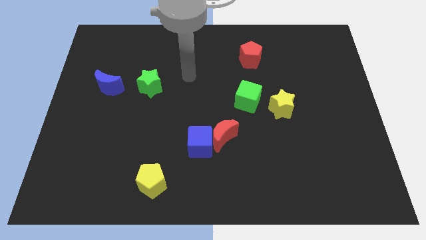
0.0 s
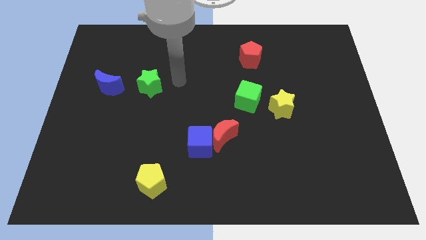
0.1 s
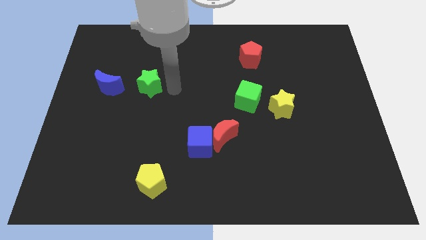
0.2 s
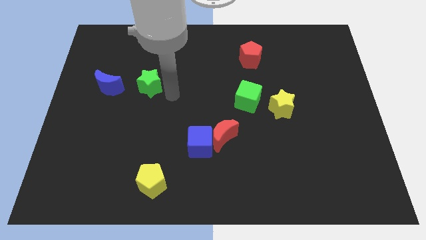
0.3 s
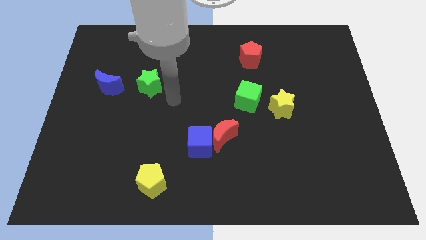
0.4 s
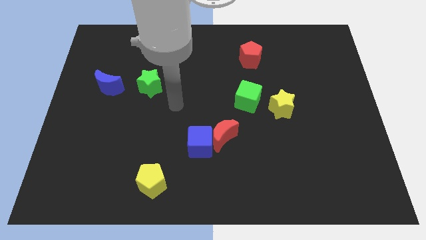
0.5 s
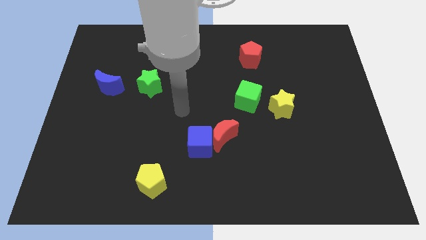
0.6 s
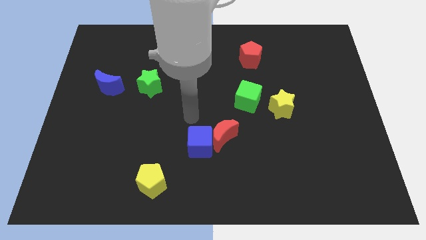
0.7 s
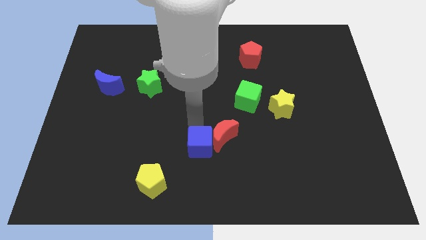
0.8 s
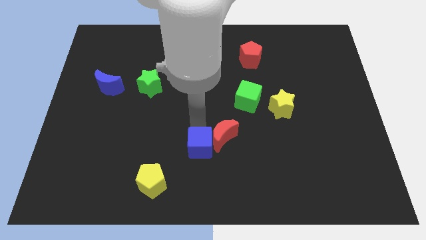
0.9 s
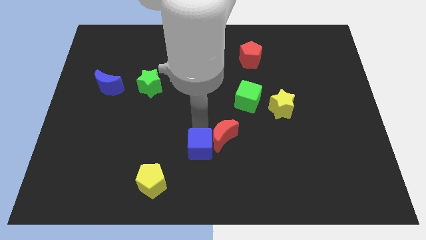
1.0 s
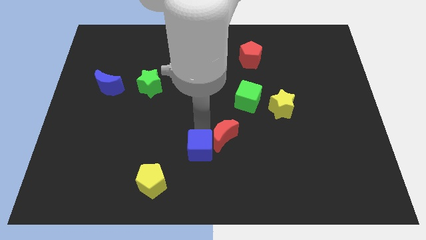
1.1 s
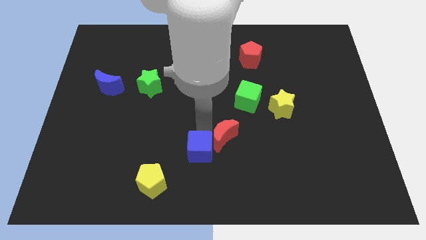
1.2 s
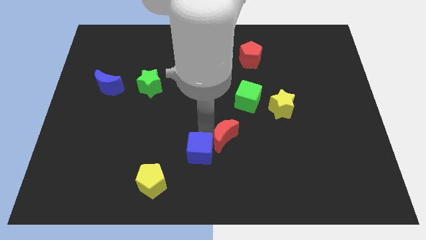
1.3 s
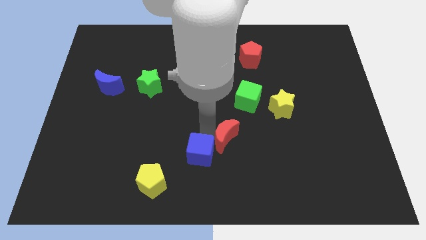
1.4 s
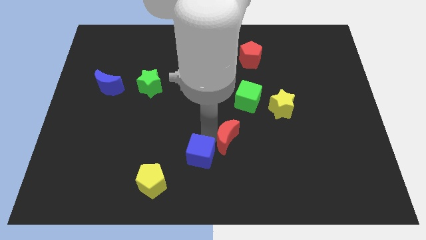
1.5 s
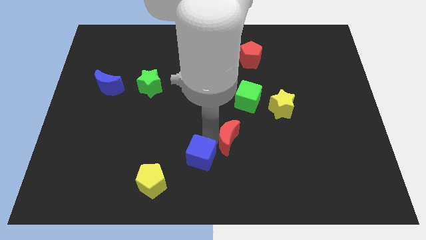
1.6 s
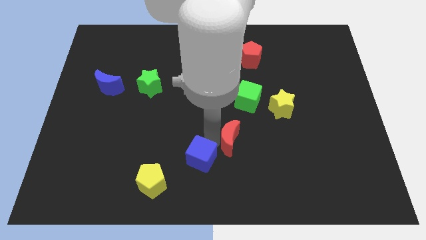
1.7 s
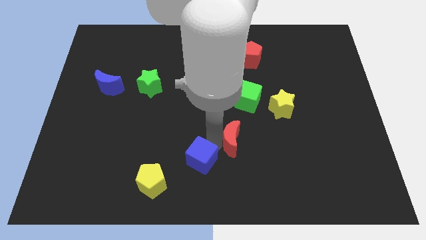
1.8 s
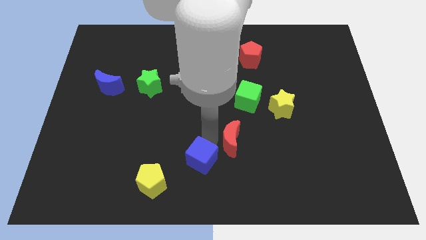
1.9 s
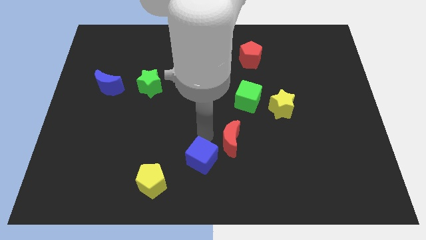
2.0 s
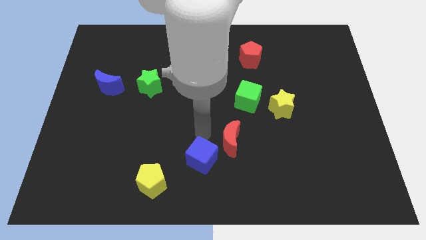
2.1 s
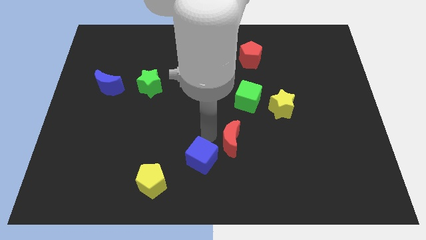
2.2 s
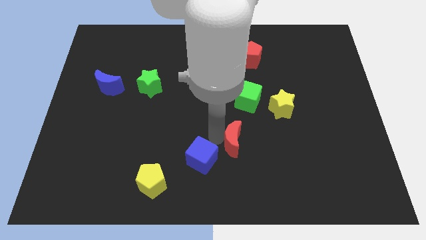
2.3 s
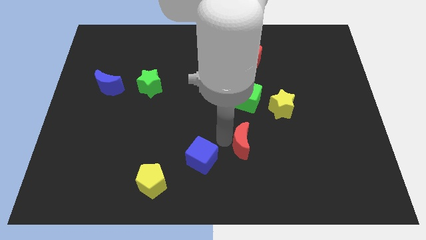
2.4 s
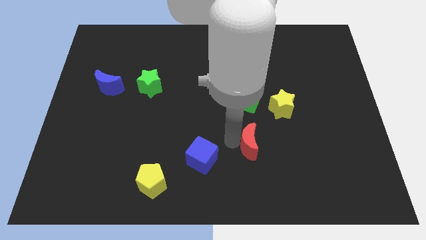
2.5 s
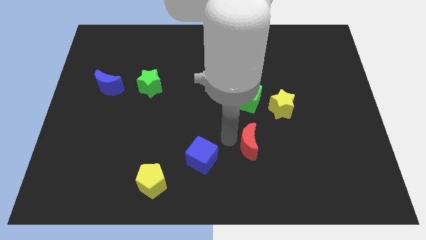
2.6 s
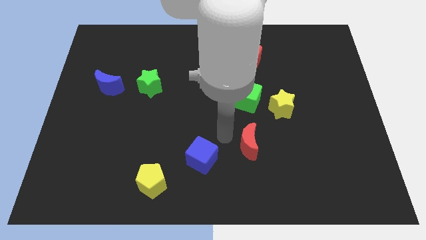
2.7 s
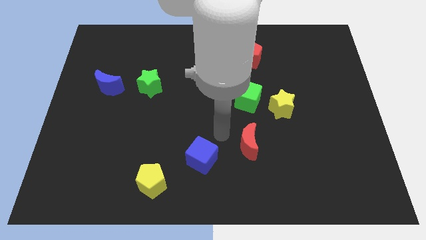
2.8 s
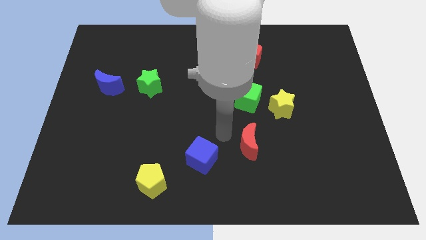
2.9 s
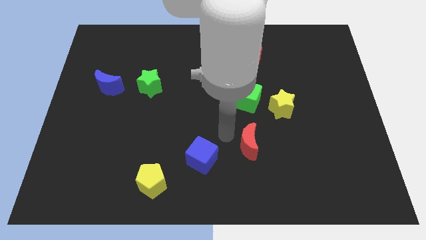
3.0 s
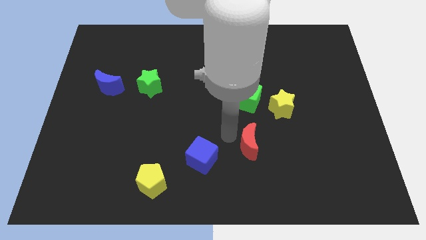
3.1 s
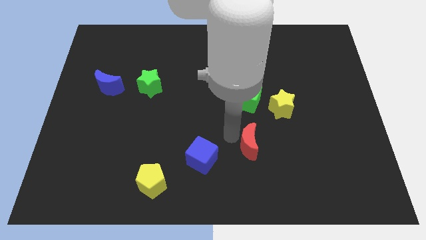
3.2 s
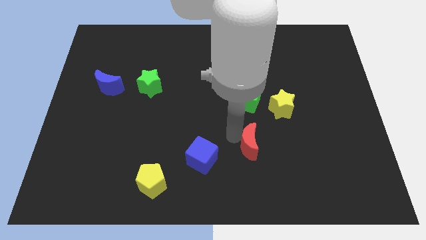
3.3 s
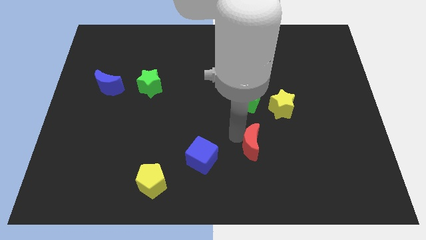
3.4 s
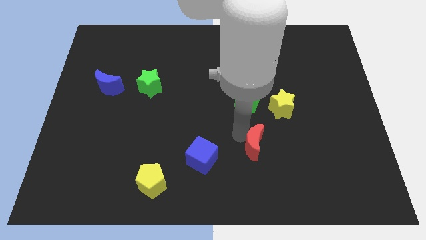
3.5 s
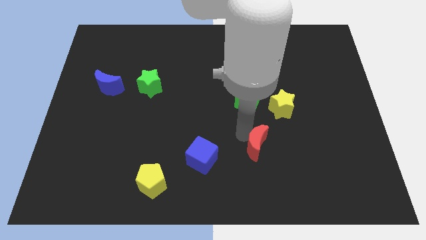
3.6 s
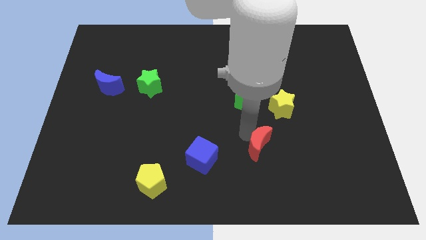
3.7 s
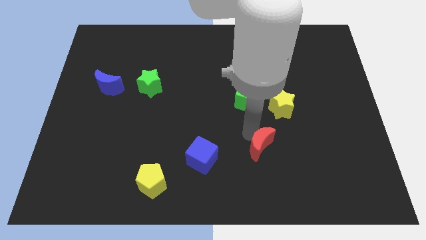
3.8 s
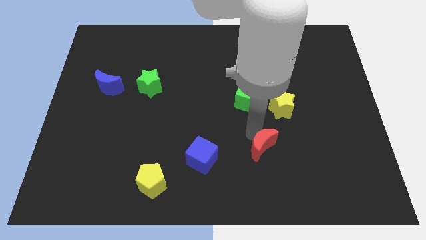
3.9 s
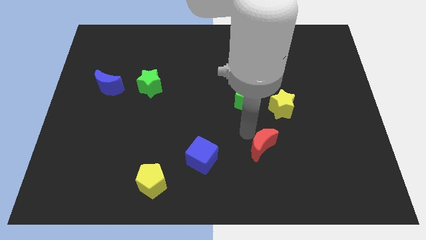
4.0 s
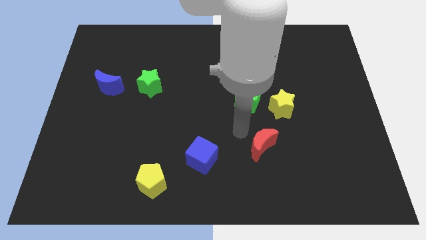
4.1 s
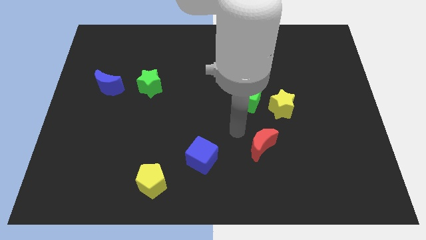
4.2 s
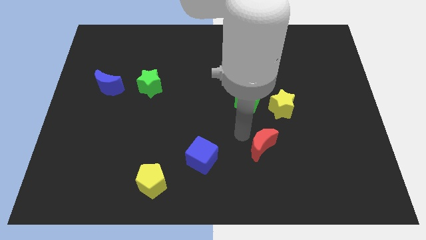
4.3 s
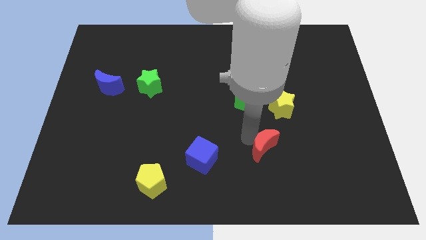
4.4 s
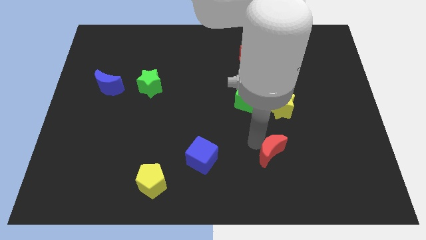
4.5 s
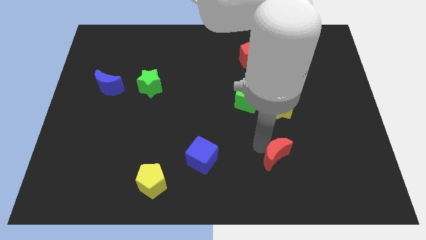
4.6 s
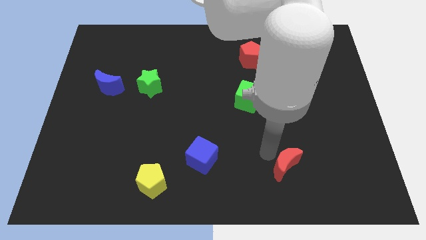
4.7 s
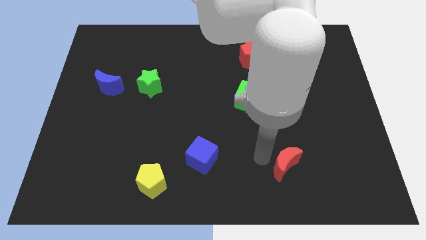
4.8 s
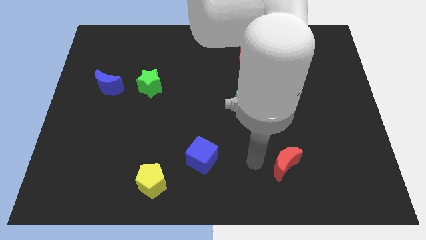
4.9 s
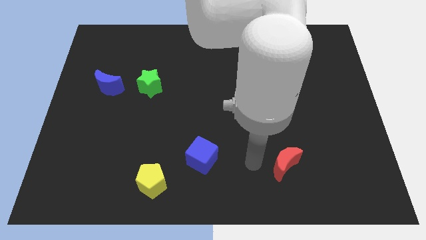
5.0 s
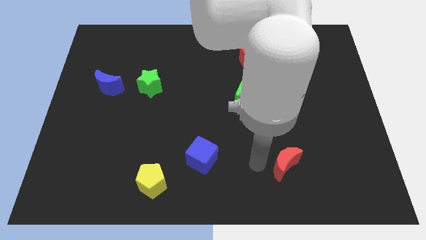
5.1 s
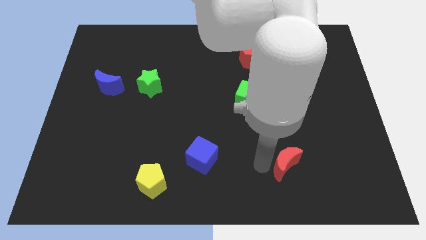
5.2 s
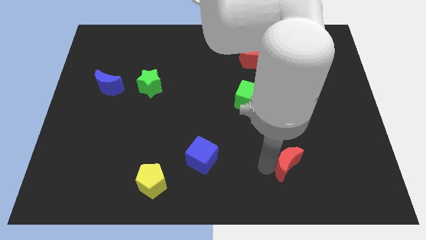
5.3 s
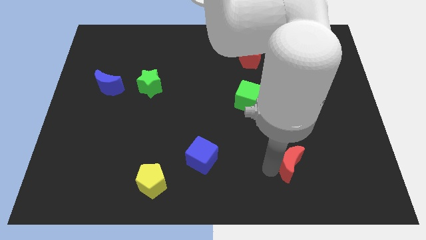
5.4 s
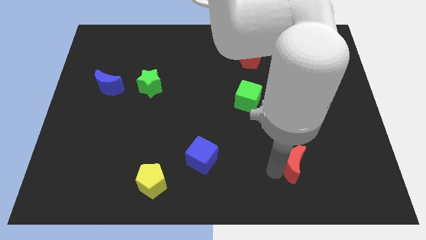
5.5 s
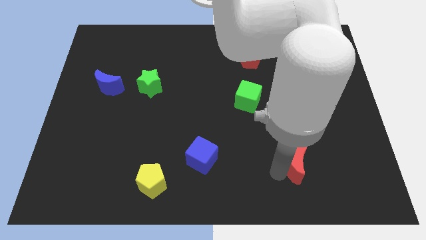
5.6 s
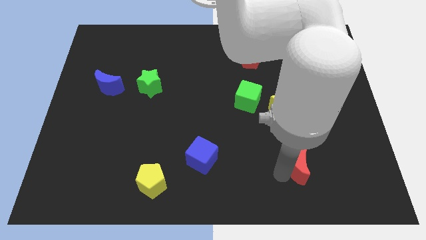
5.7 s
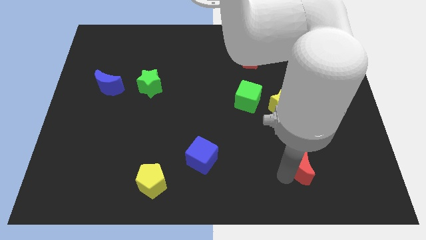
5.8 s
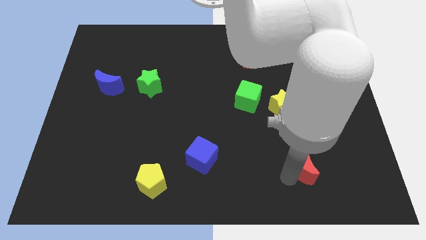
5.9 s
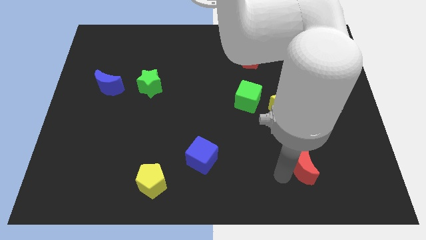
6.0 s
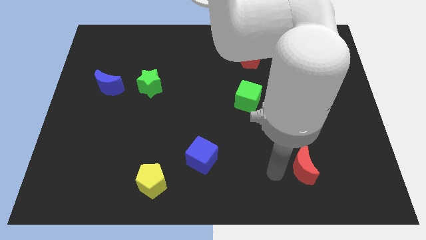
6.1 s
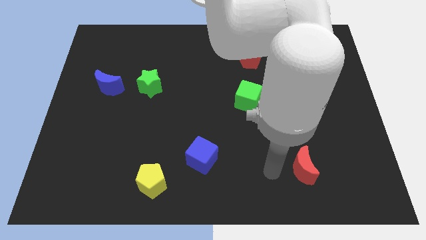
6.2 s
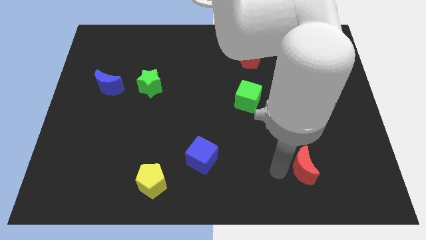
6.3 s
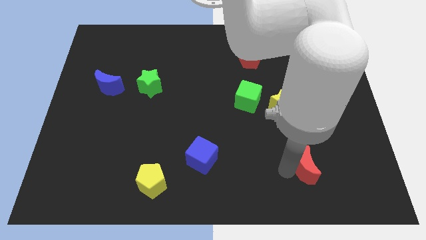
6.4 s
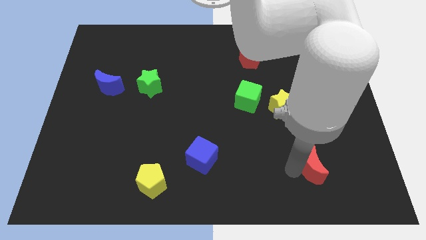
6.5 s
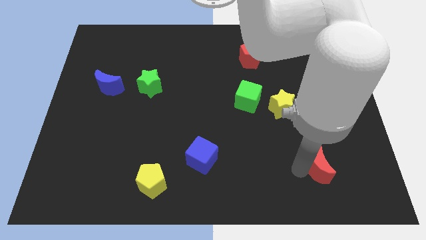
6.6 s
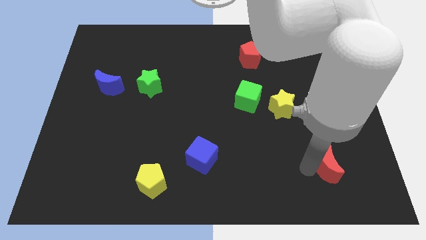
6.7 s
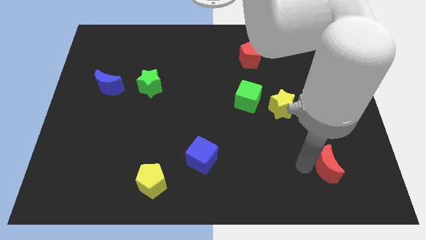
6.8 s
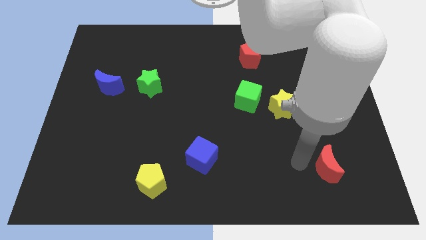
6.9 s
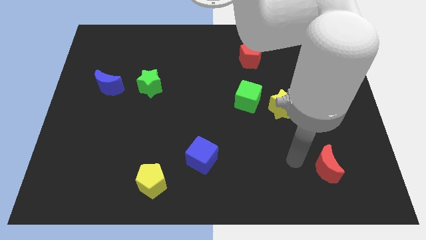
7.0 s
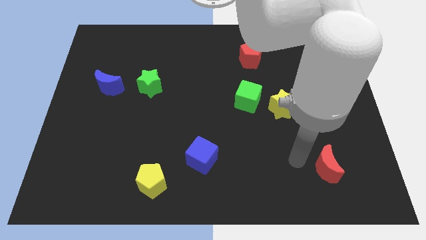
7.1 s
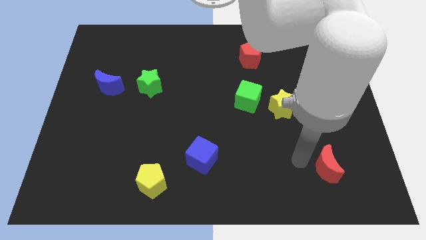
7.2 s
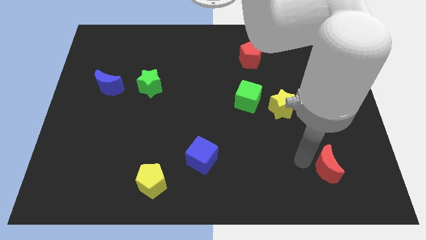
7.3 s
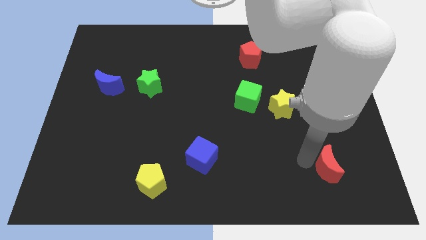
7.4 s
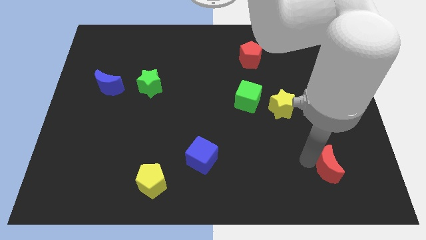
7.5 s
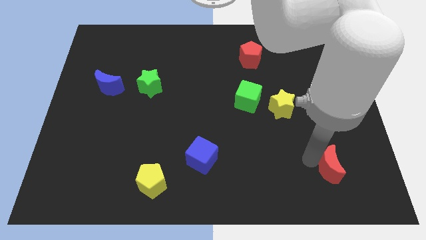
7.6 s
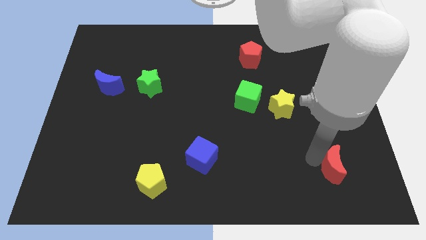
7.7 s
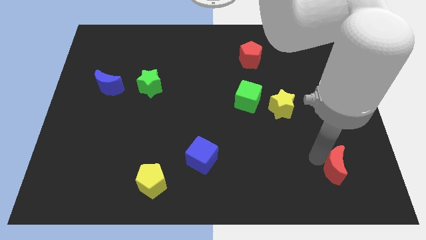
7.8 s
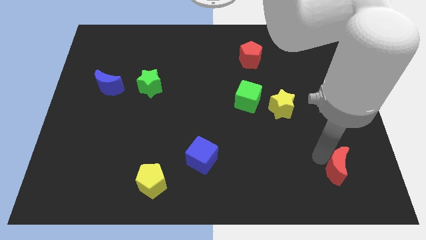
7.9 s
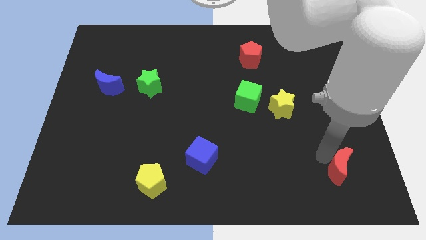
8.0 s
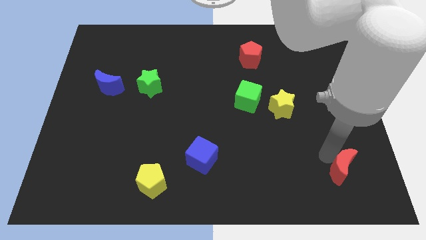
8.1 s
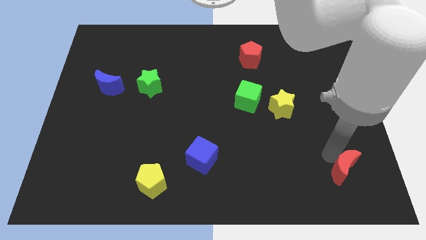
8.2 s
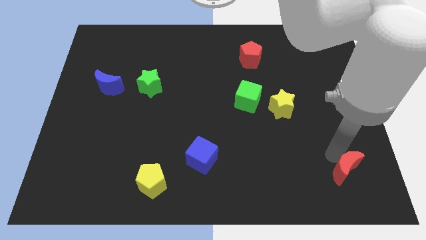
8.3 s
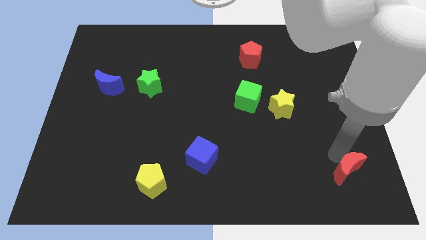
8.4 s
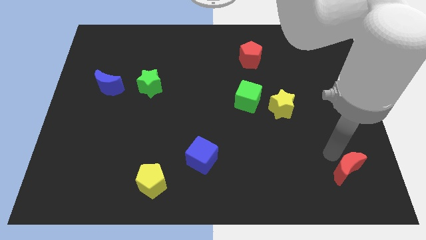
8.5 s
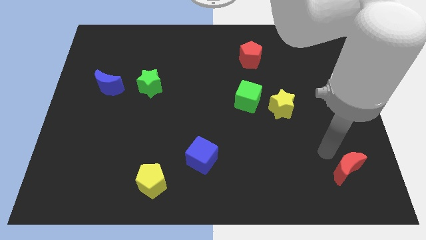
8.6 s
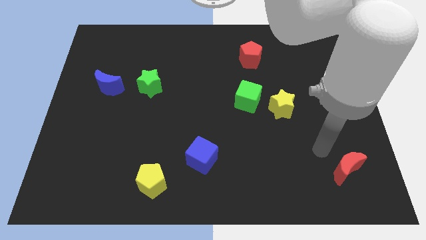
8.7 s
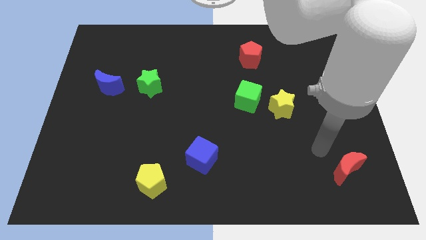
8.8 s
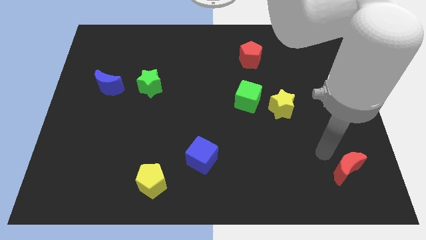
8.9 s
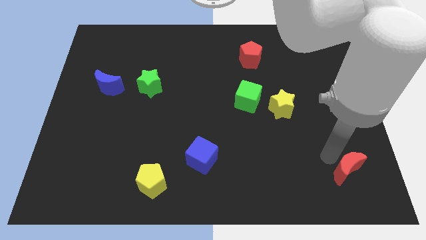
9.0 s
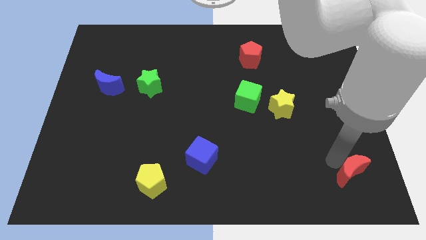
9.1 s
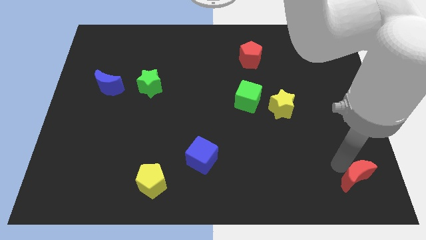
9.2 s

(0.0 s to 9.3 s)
move the red moon to the lower right corner
